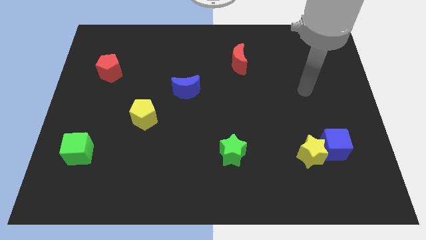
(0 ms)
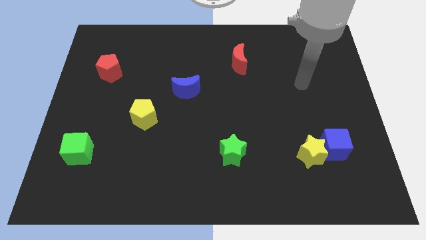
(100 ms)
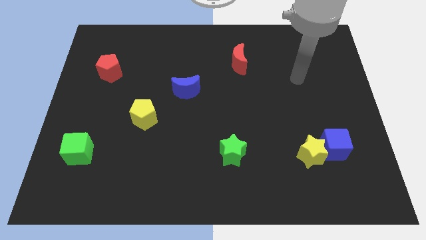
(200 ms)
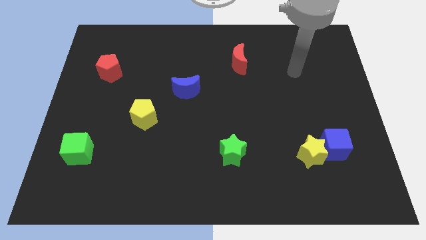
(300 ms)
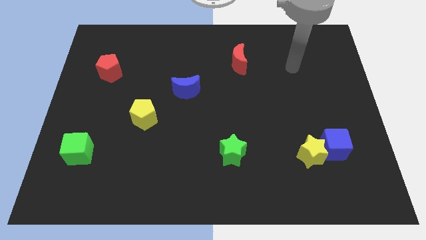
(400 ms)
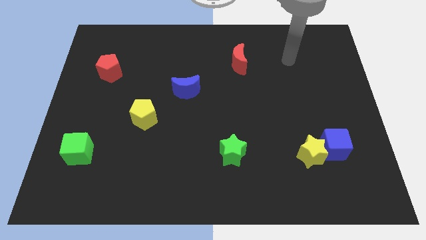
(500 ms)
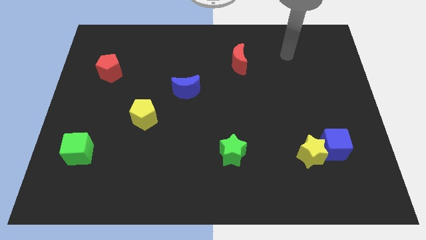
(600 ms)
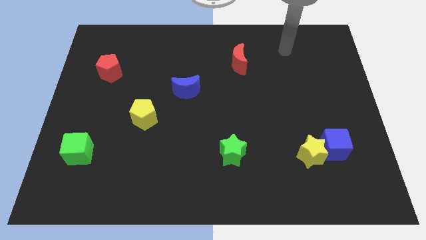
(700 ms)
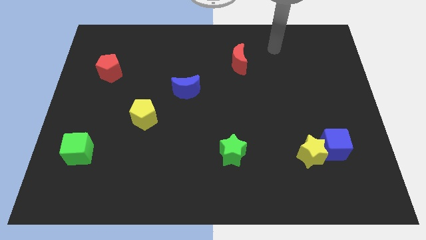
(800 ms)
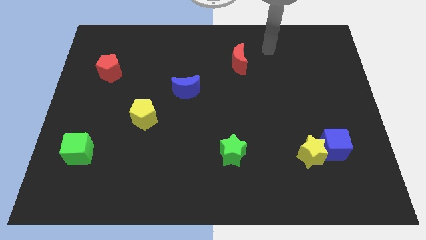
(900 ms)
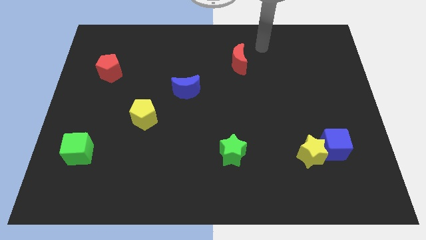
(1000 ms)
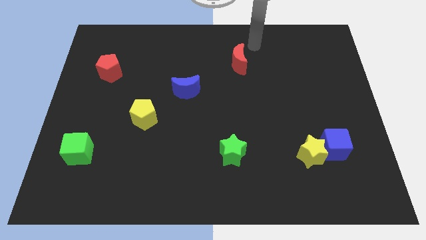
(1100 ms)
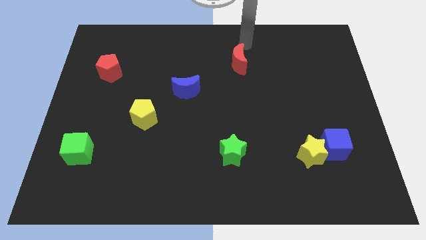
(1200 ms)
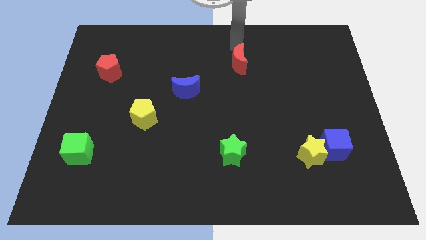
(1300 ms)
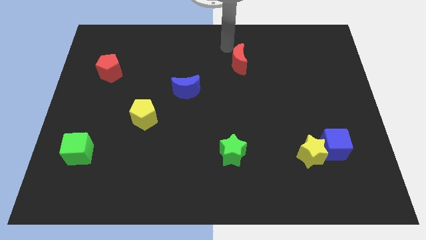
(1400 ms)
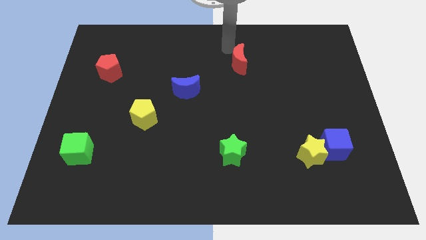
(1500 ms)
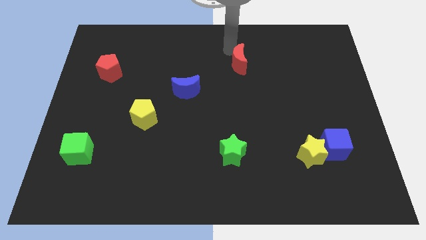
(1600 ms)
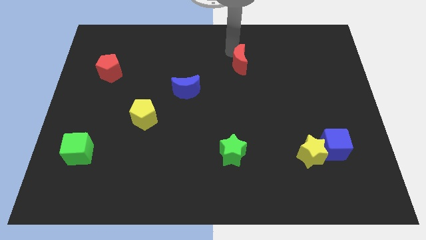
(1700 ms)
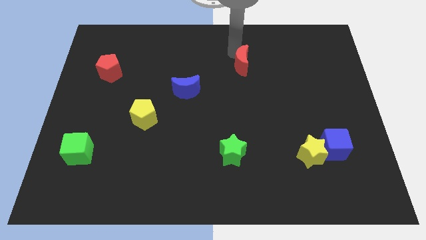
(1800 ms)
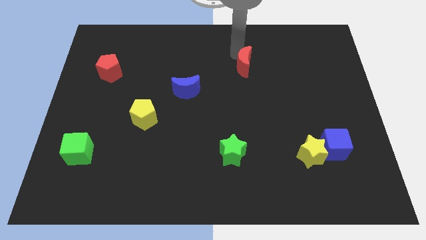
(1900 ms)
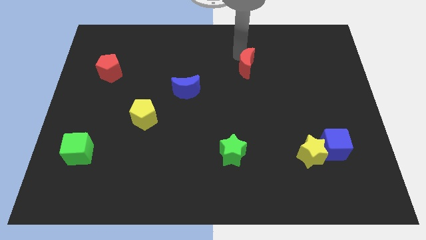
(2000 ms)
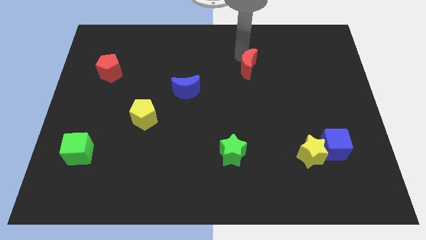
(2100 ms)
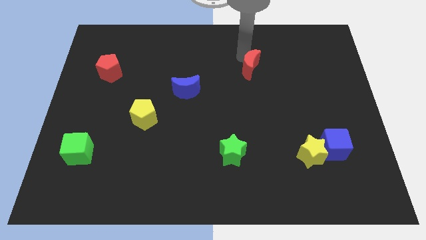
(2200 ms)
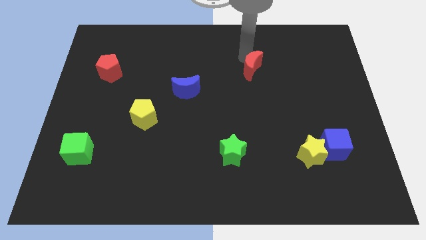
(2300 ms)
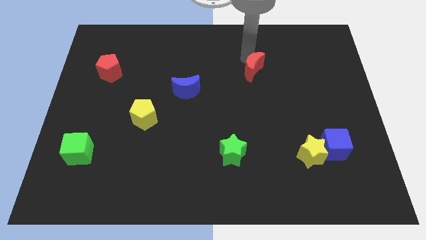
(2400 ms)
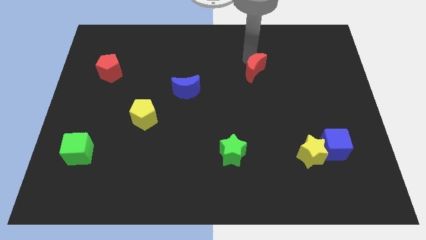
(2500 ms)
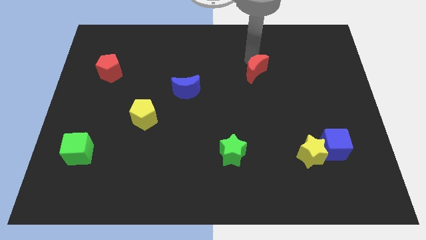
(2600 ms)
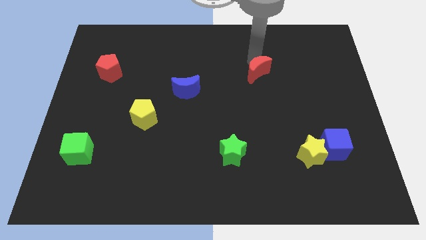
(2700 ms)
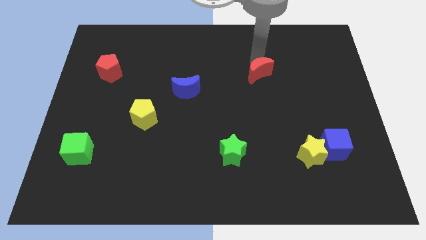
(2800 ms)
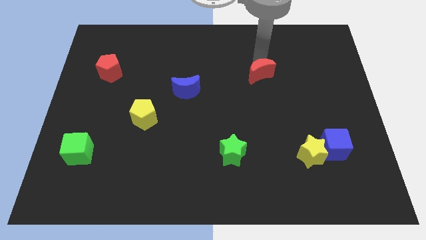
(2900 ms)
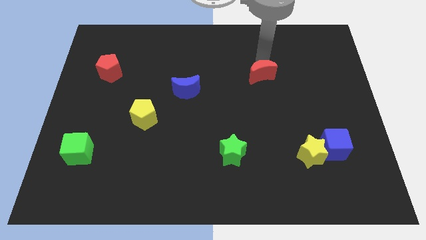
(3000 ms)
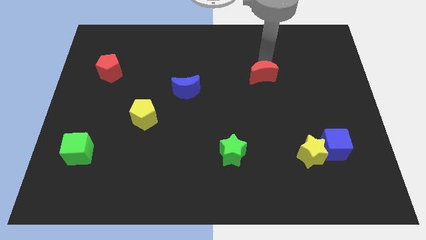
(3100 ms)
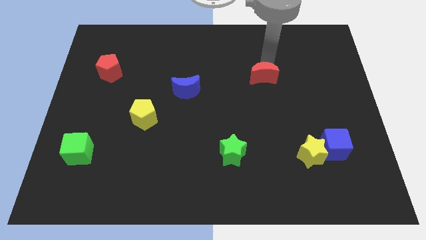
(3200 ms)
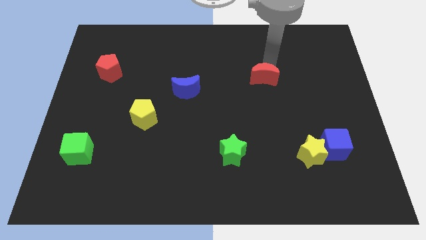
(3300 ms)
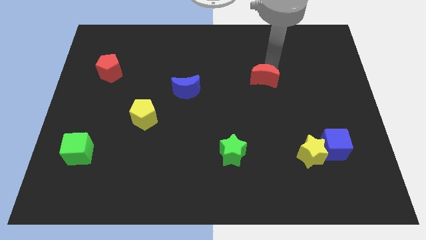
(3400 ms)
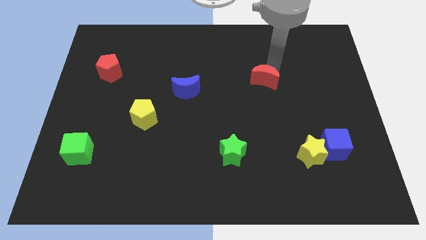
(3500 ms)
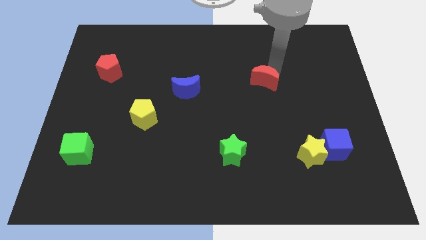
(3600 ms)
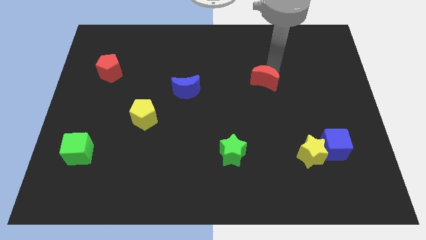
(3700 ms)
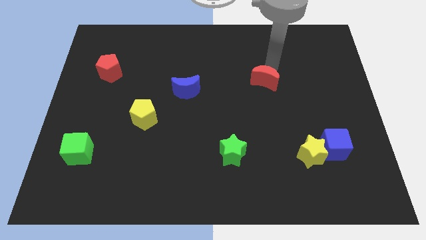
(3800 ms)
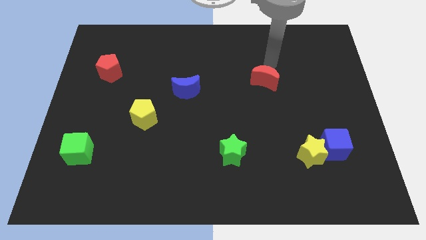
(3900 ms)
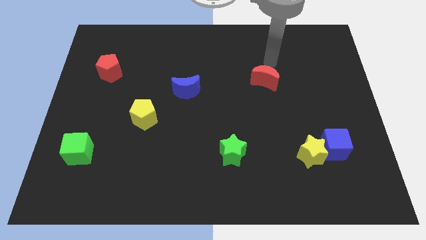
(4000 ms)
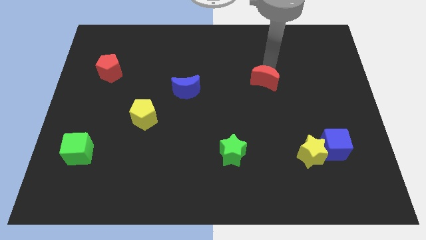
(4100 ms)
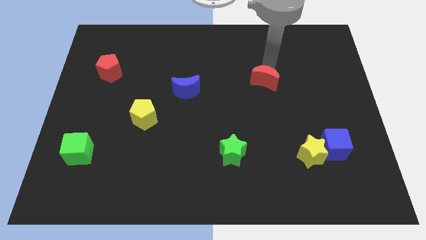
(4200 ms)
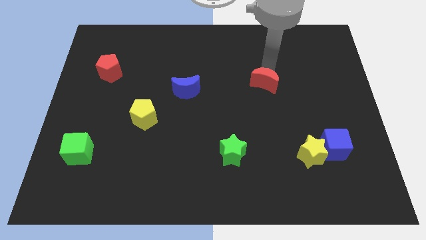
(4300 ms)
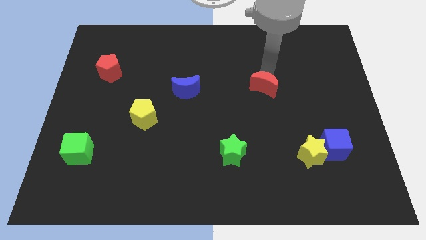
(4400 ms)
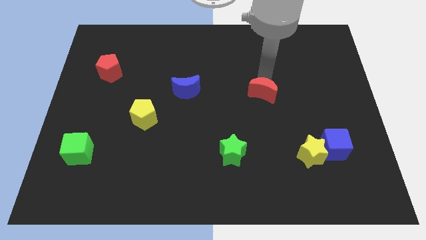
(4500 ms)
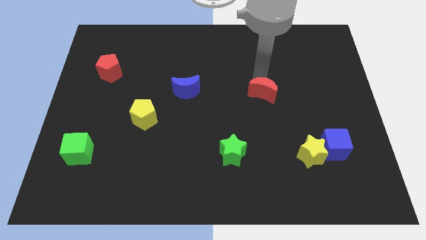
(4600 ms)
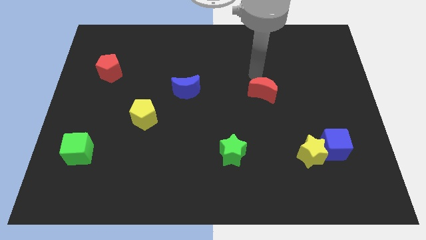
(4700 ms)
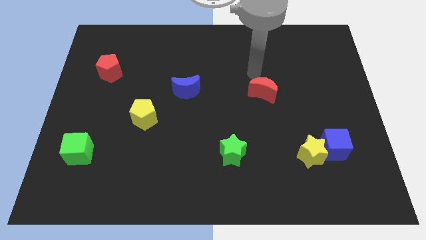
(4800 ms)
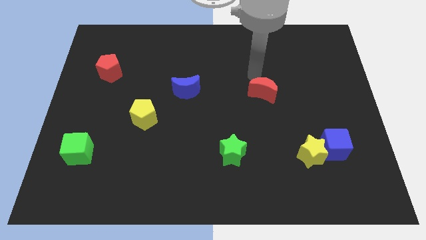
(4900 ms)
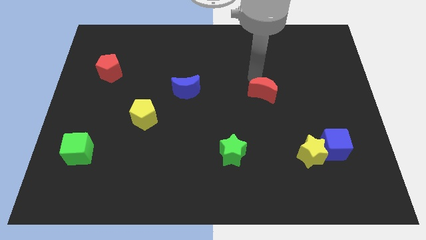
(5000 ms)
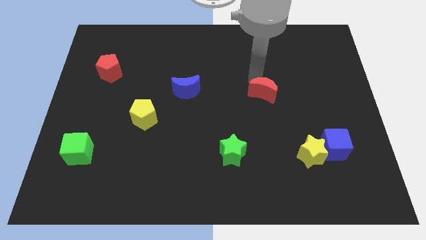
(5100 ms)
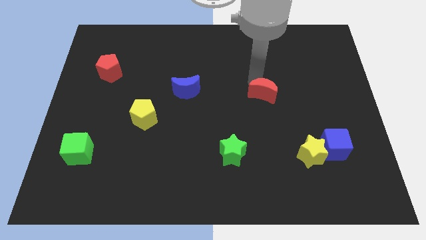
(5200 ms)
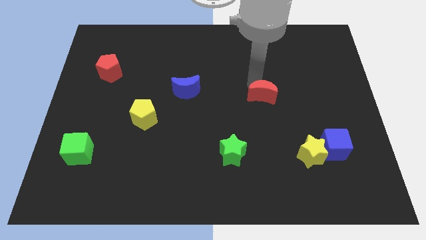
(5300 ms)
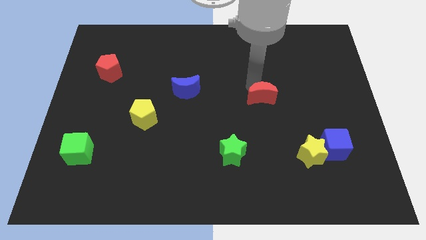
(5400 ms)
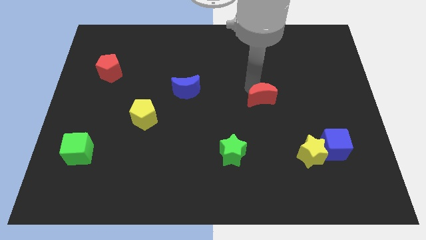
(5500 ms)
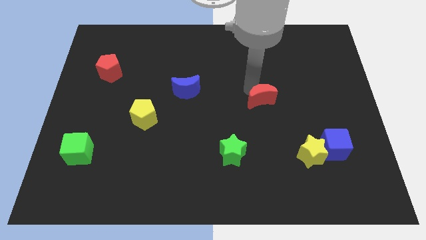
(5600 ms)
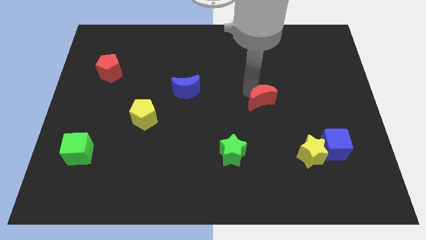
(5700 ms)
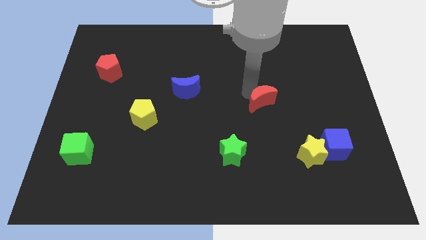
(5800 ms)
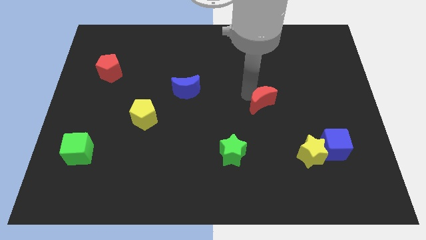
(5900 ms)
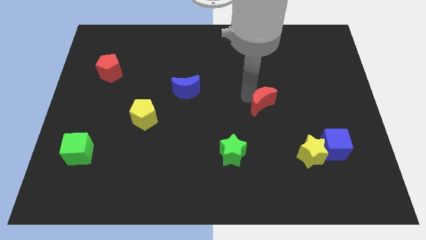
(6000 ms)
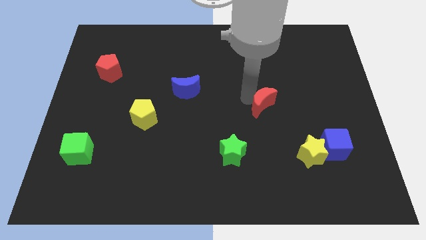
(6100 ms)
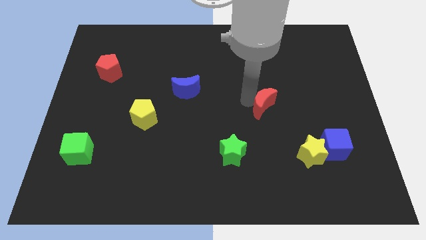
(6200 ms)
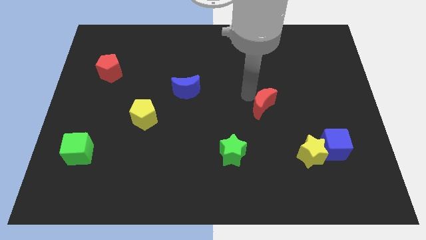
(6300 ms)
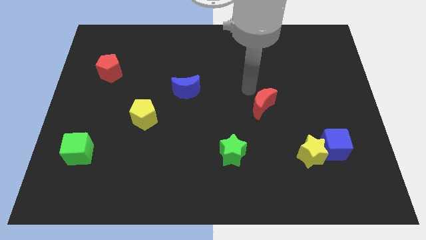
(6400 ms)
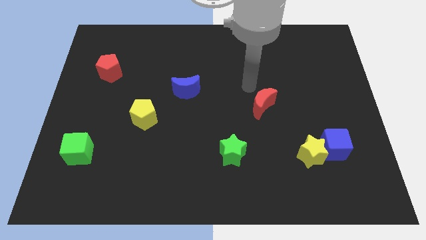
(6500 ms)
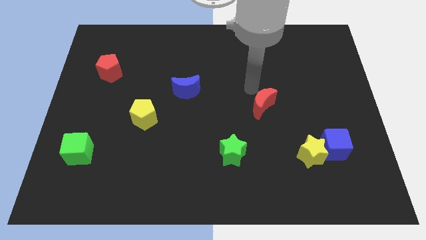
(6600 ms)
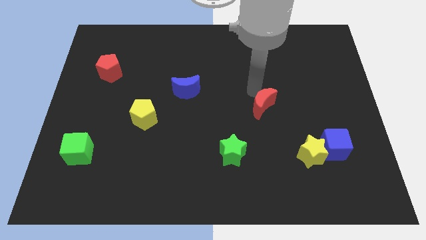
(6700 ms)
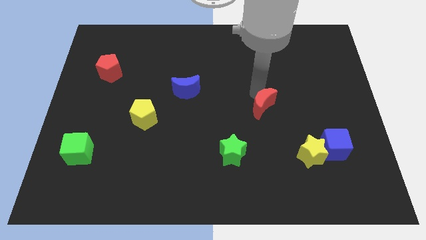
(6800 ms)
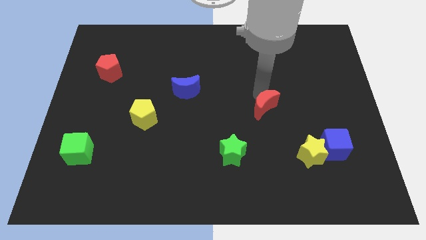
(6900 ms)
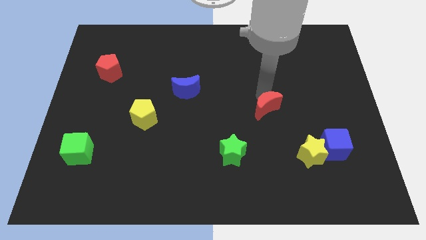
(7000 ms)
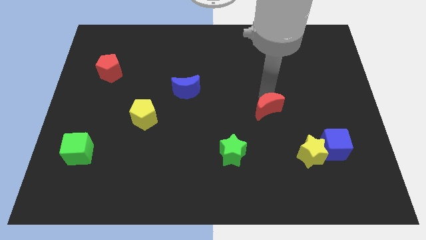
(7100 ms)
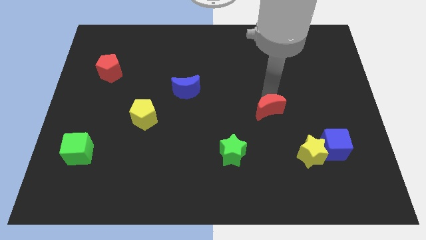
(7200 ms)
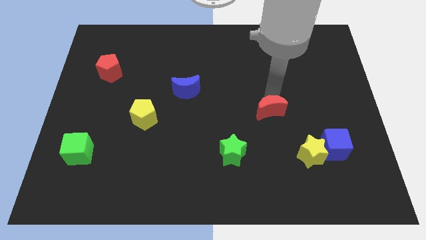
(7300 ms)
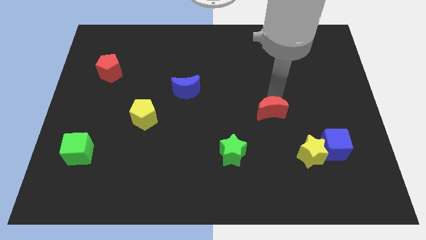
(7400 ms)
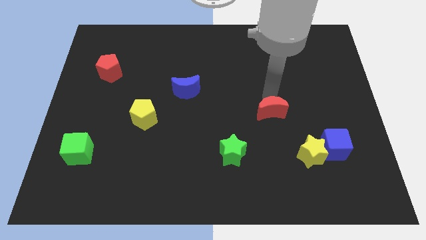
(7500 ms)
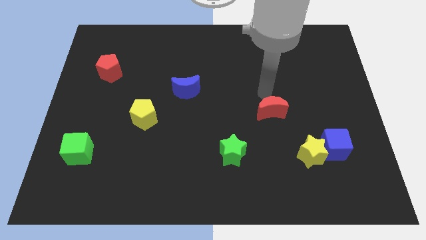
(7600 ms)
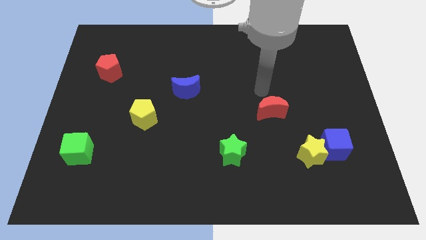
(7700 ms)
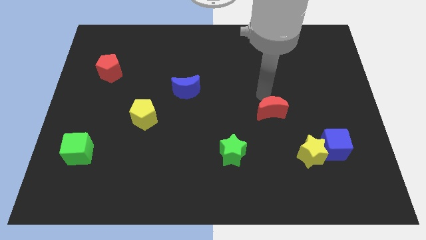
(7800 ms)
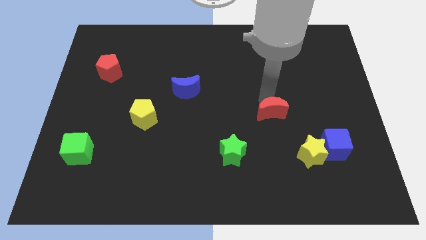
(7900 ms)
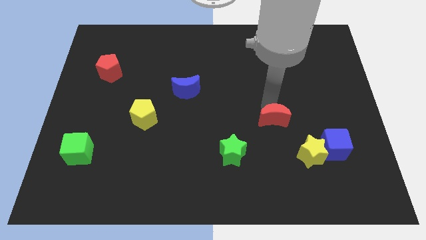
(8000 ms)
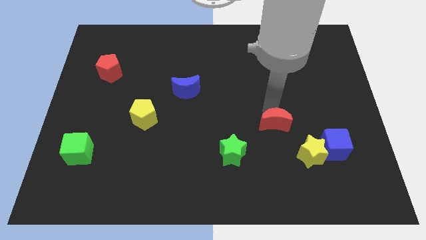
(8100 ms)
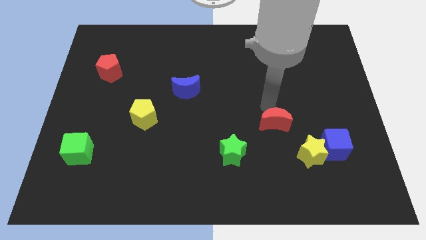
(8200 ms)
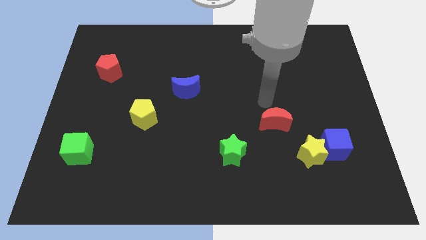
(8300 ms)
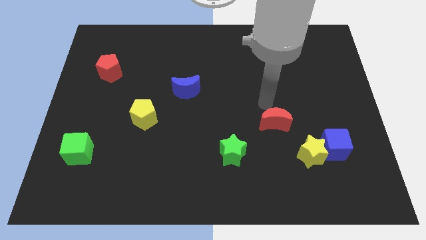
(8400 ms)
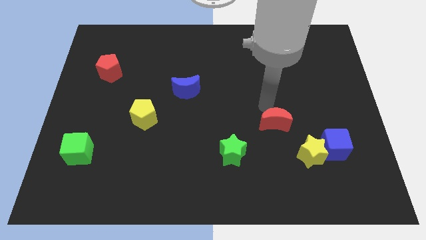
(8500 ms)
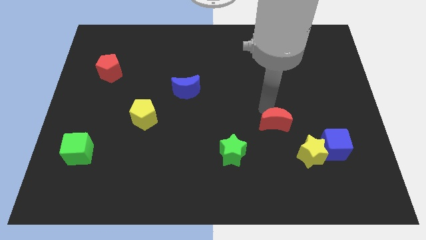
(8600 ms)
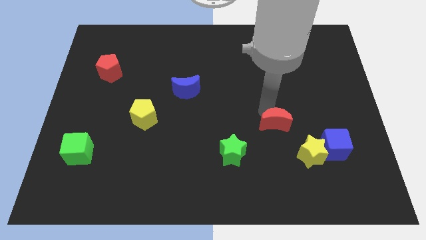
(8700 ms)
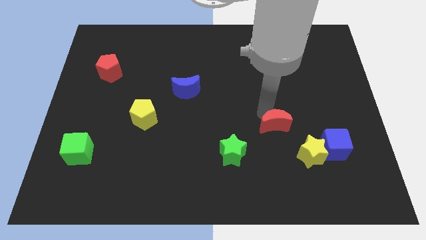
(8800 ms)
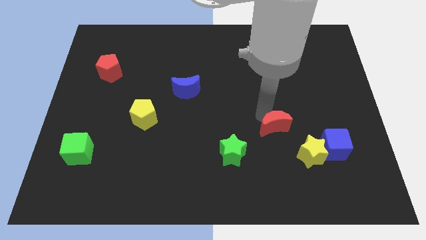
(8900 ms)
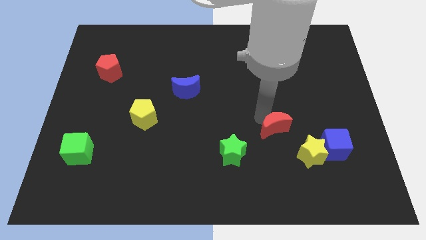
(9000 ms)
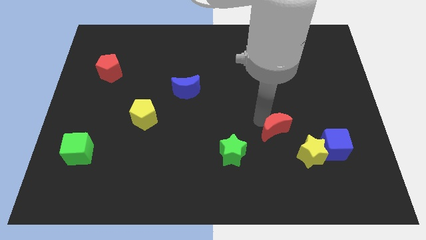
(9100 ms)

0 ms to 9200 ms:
put the red moon left of the blue cube
